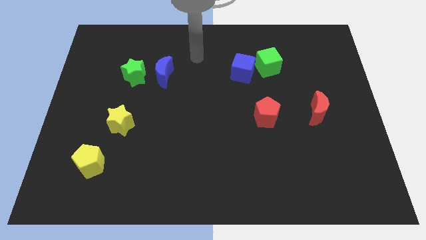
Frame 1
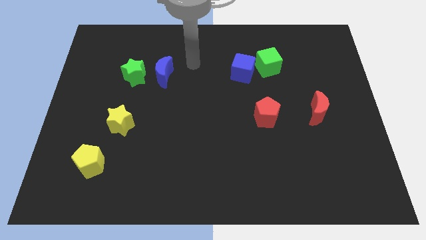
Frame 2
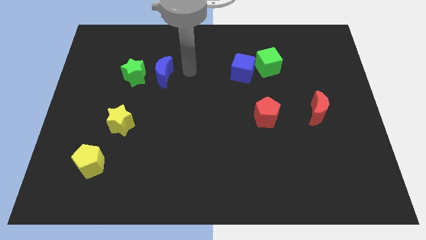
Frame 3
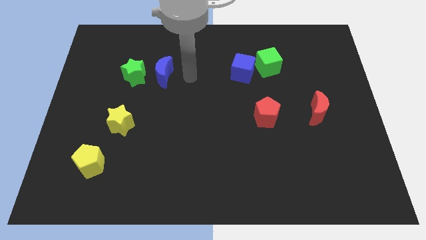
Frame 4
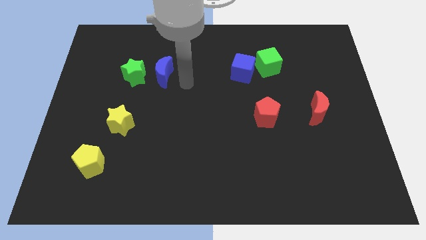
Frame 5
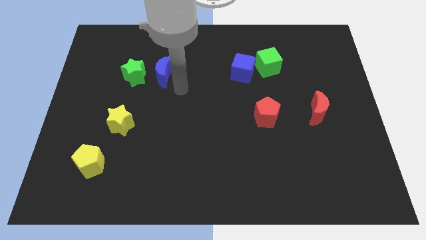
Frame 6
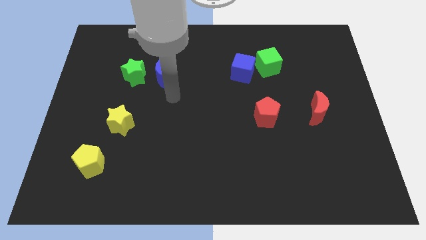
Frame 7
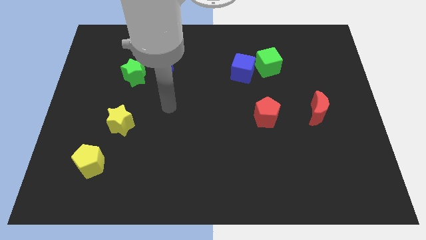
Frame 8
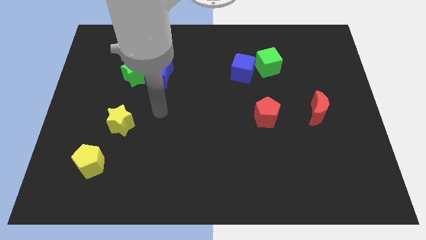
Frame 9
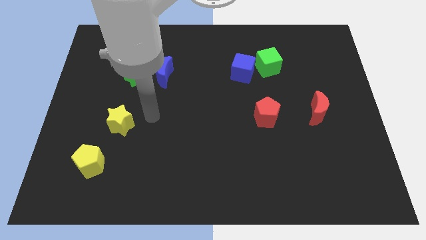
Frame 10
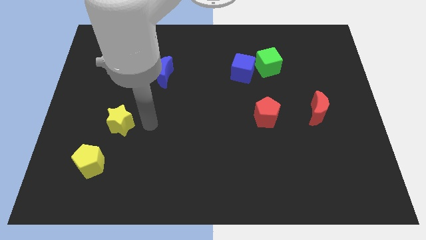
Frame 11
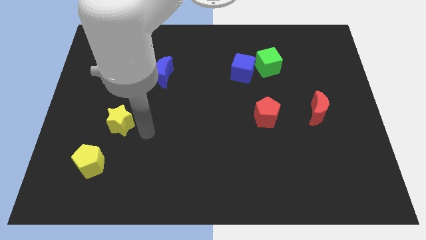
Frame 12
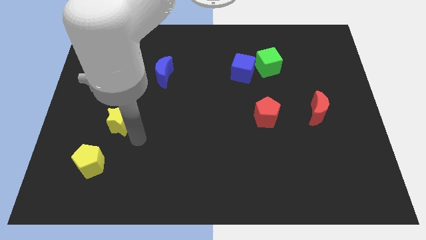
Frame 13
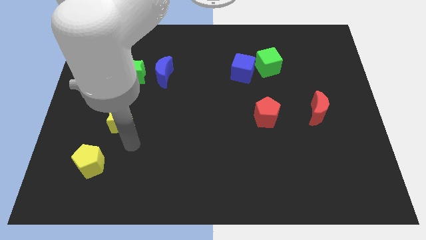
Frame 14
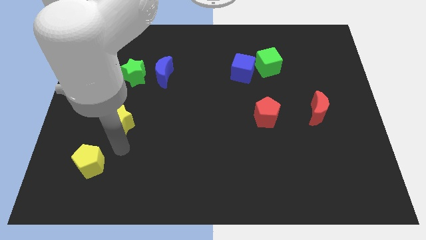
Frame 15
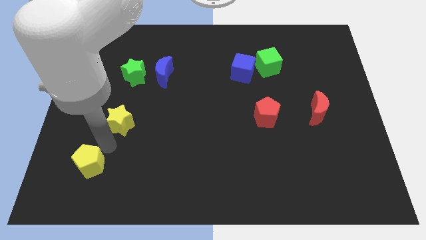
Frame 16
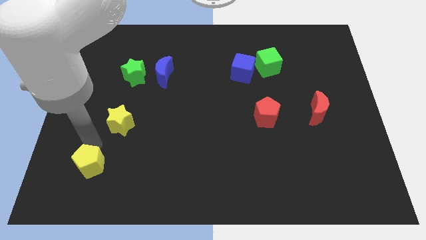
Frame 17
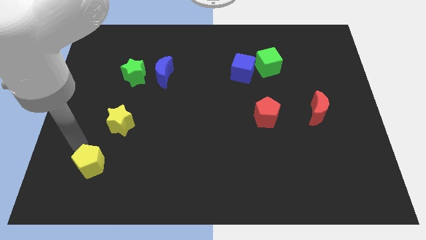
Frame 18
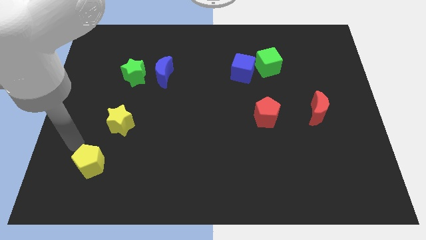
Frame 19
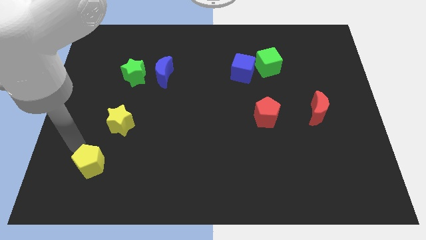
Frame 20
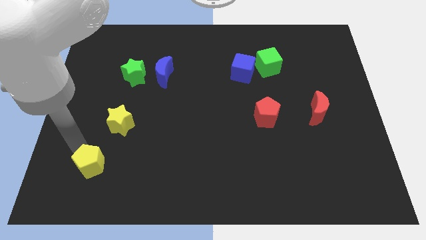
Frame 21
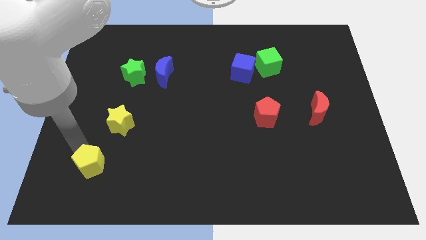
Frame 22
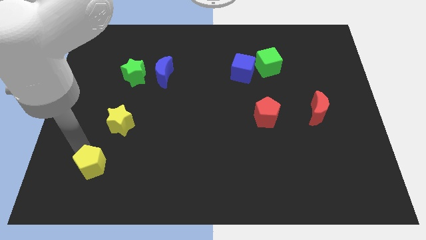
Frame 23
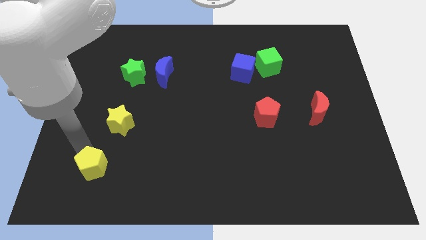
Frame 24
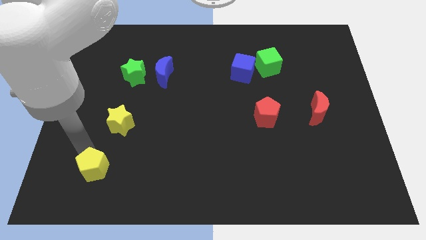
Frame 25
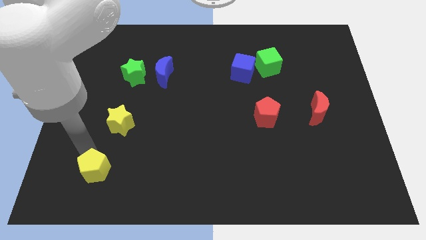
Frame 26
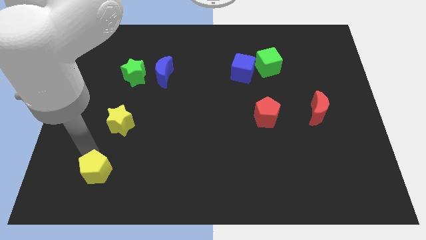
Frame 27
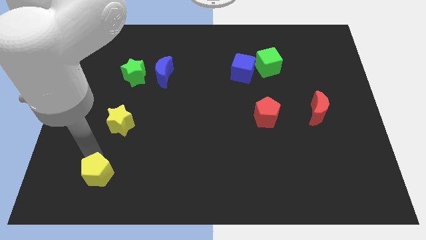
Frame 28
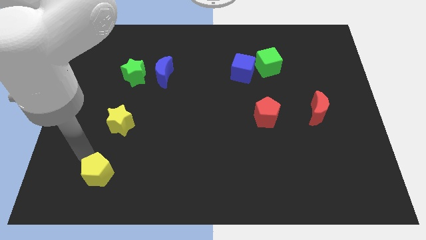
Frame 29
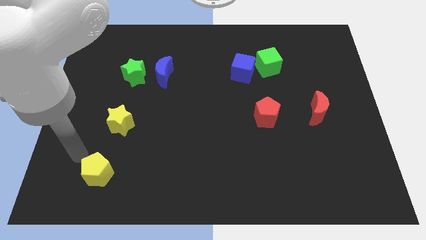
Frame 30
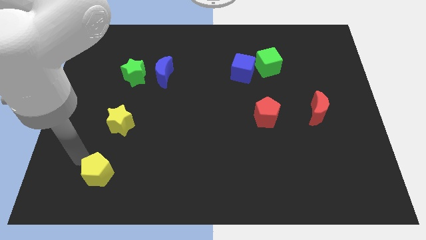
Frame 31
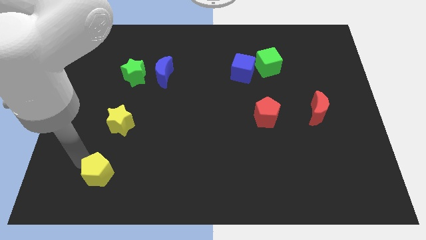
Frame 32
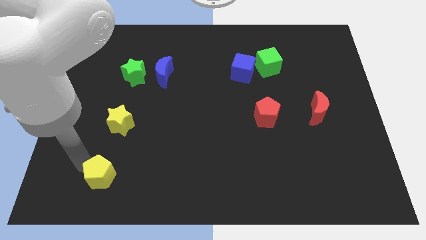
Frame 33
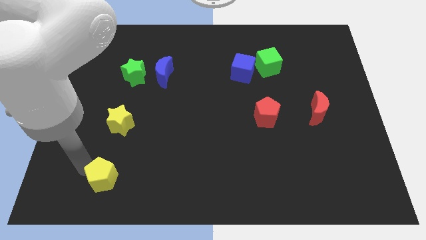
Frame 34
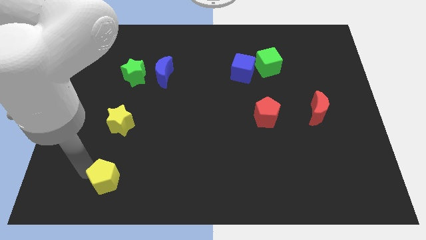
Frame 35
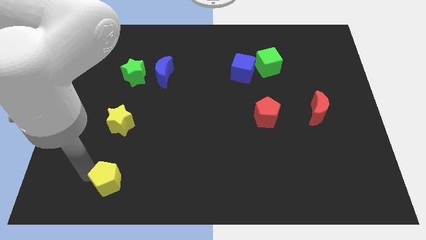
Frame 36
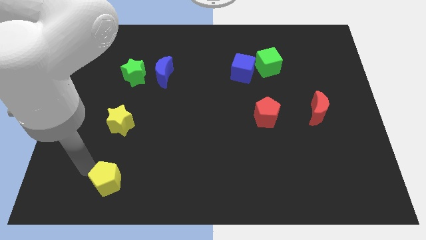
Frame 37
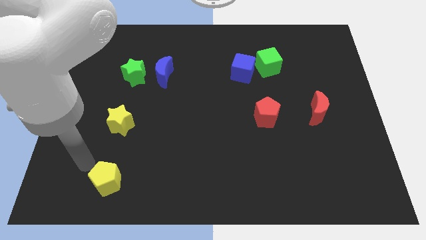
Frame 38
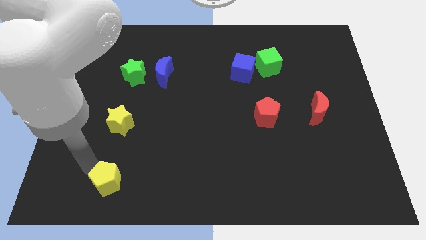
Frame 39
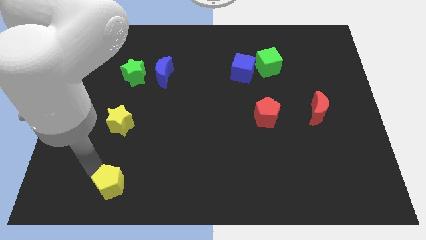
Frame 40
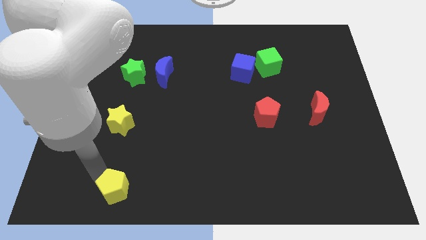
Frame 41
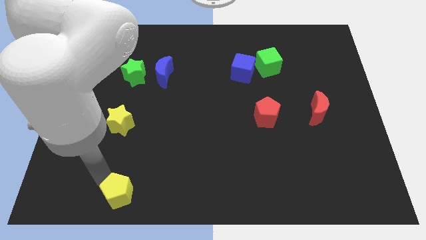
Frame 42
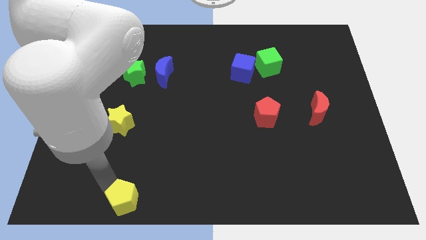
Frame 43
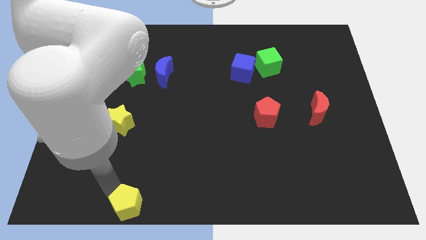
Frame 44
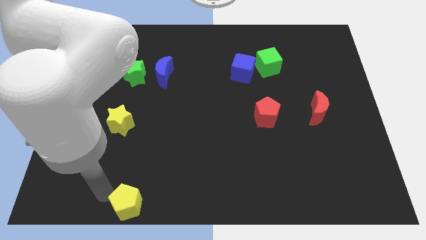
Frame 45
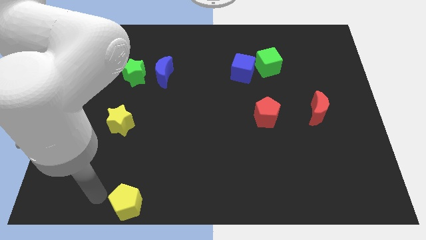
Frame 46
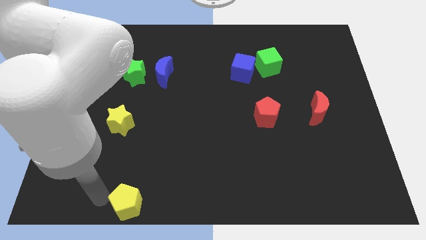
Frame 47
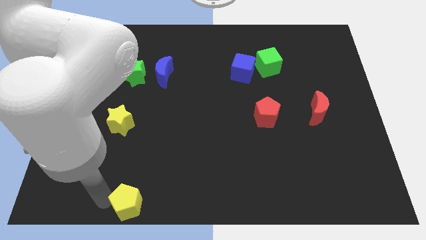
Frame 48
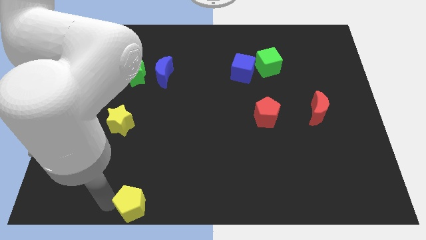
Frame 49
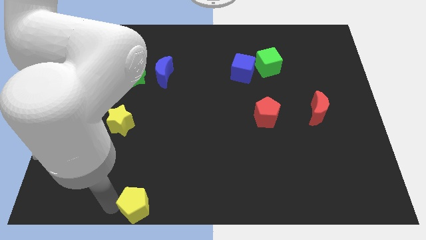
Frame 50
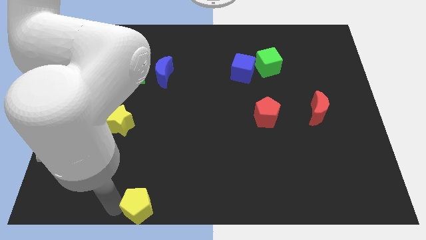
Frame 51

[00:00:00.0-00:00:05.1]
push the yellow pentagon to the bottom side

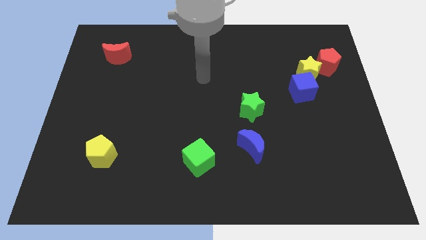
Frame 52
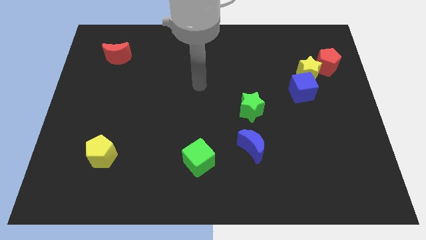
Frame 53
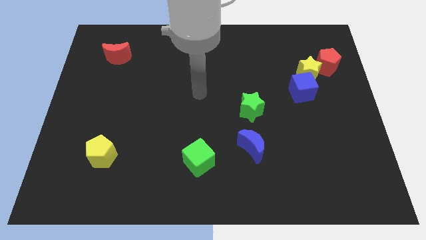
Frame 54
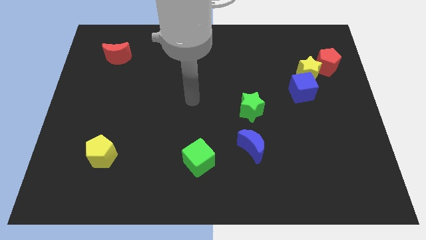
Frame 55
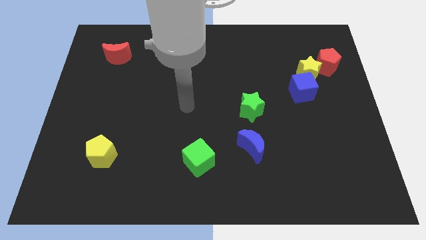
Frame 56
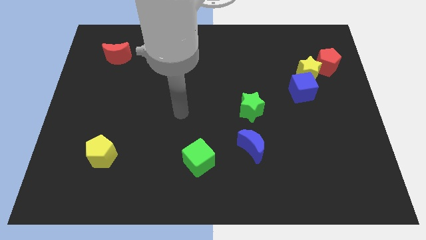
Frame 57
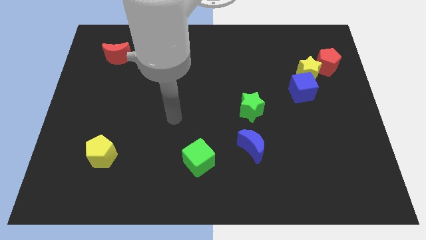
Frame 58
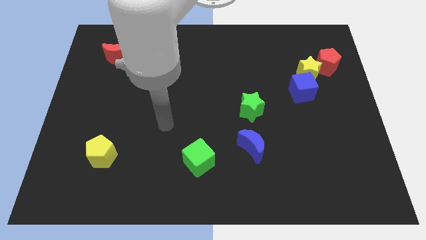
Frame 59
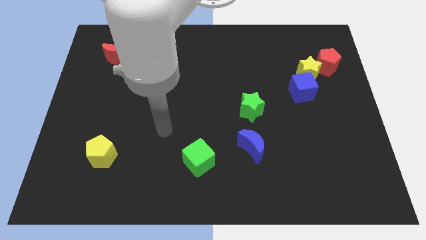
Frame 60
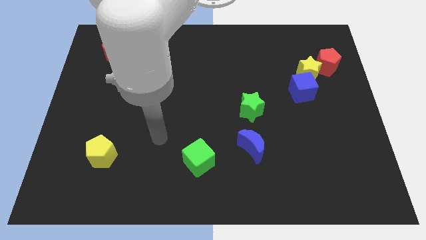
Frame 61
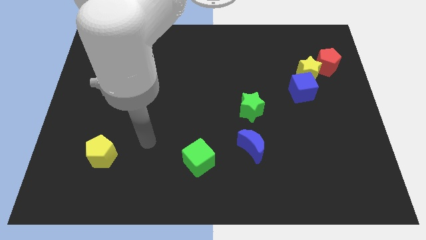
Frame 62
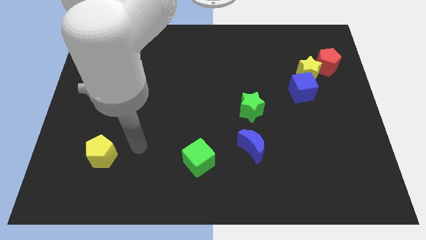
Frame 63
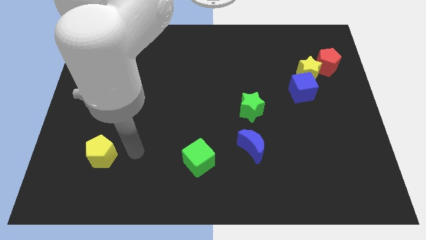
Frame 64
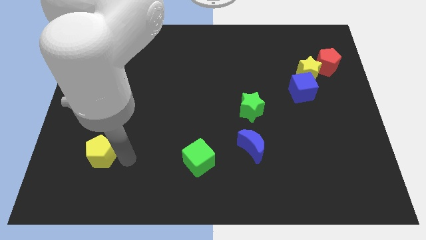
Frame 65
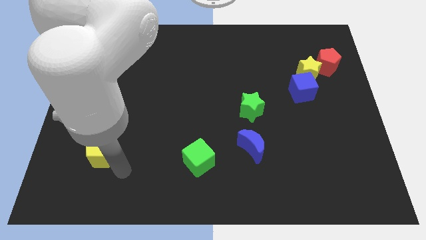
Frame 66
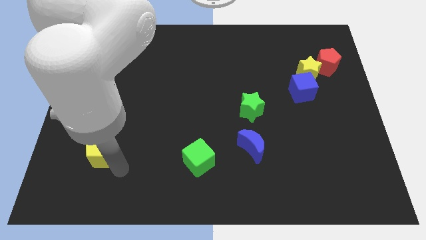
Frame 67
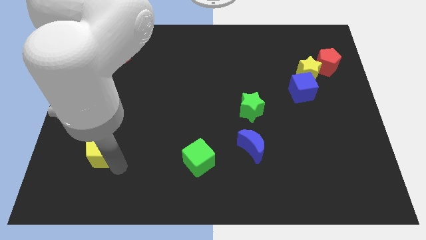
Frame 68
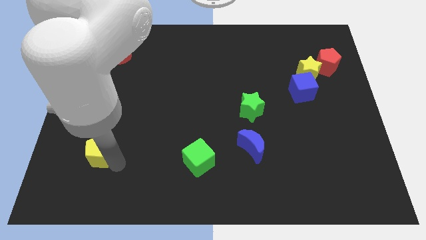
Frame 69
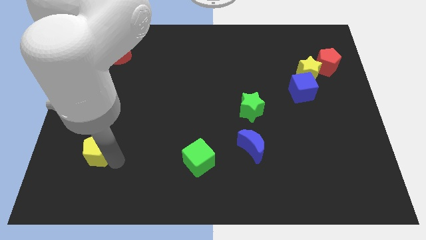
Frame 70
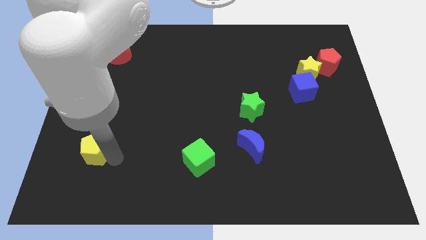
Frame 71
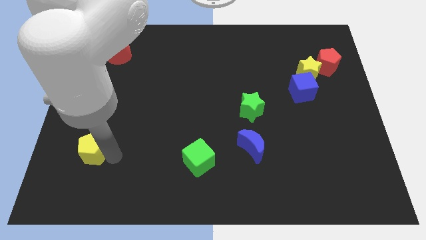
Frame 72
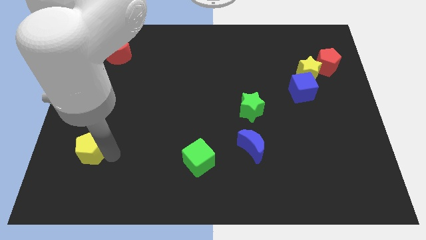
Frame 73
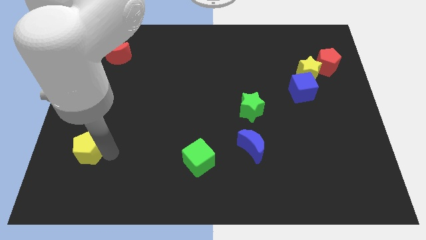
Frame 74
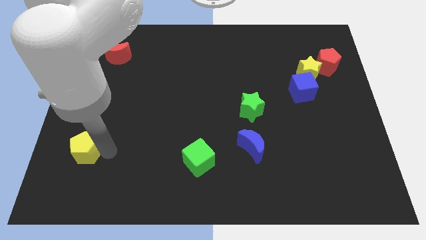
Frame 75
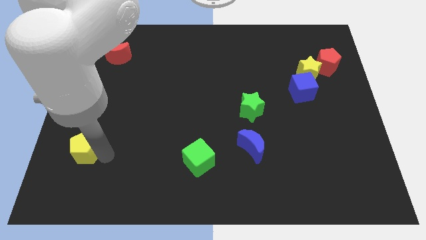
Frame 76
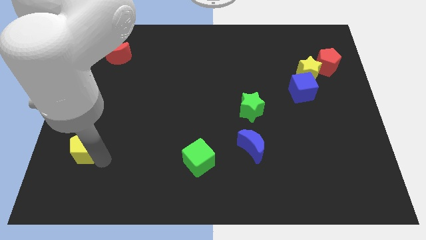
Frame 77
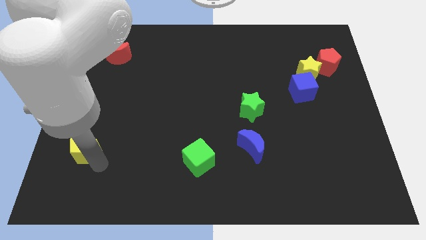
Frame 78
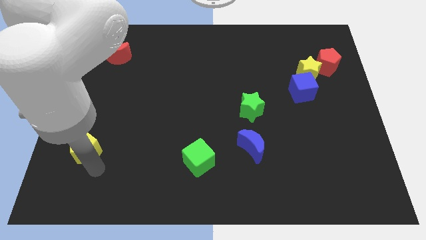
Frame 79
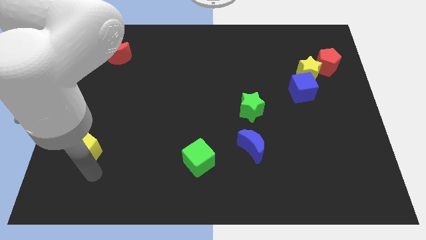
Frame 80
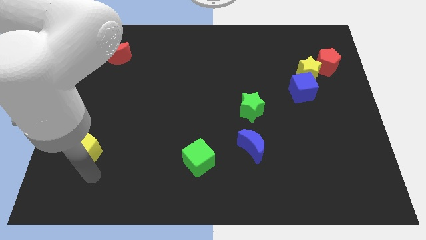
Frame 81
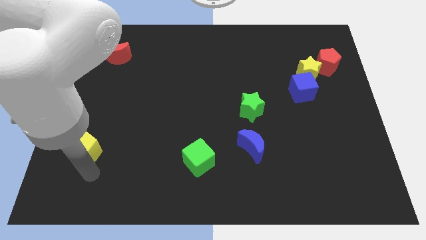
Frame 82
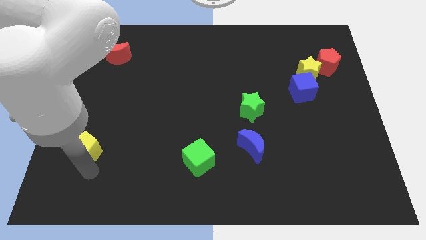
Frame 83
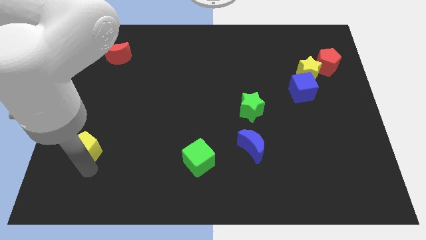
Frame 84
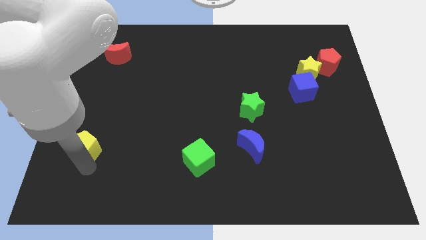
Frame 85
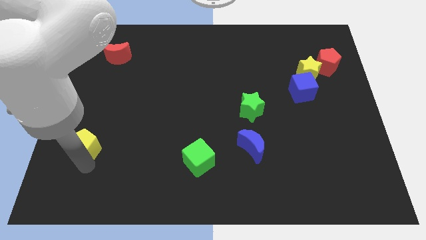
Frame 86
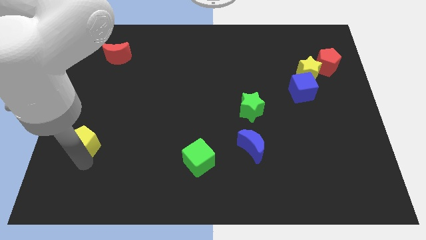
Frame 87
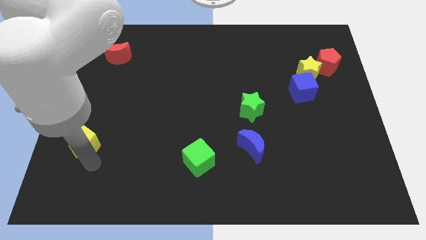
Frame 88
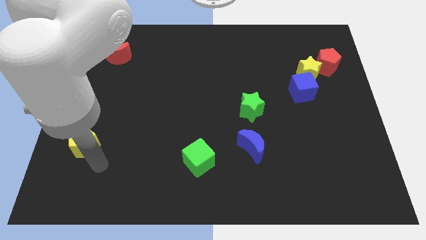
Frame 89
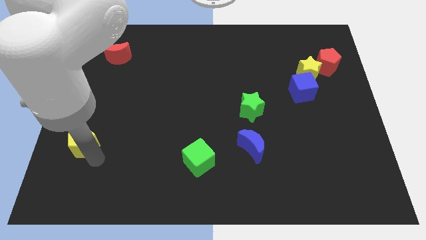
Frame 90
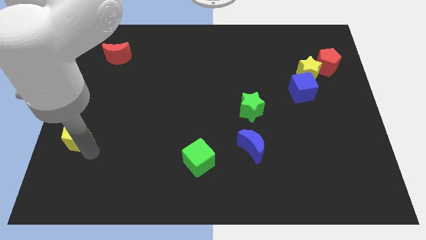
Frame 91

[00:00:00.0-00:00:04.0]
put the yellow pentagon to the left side
